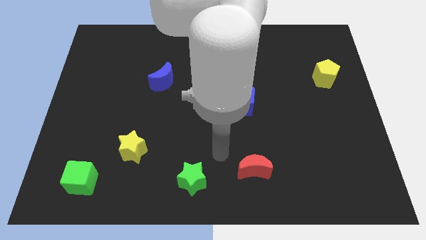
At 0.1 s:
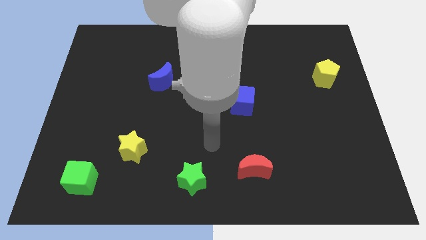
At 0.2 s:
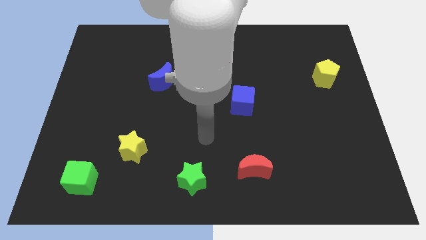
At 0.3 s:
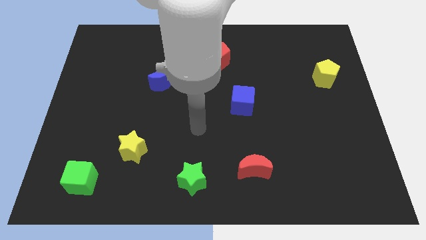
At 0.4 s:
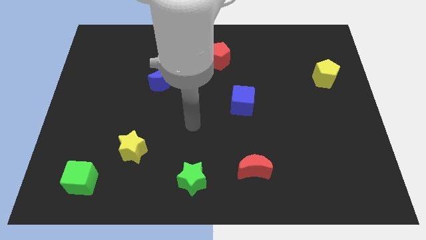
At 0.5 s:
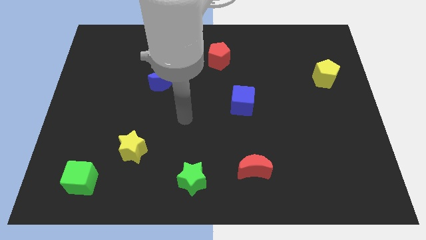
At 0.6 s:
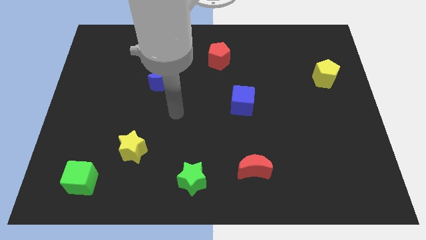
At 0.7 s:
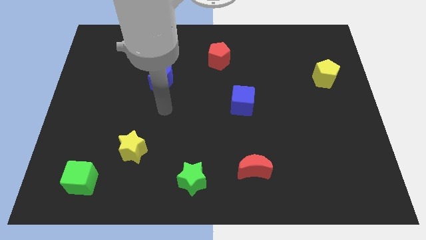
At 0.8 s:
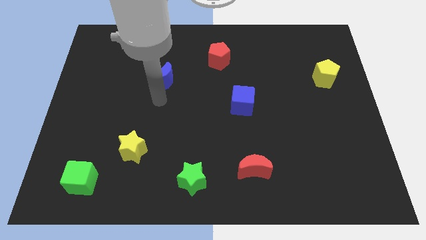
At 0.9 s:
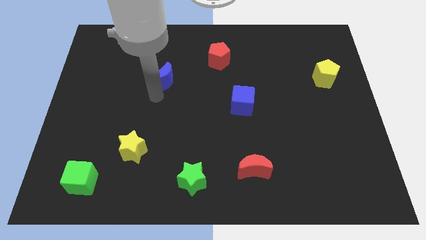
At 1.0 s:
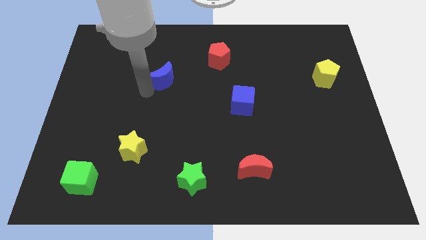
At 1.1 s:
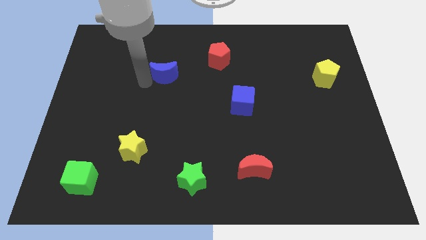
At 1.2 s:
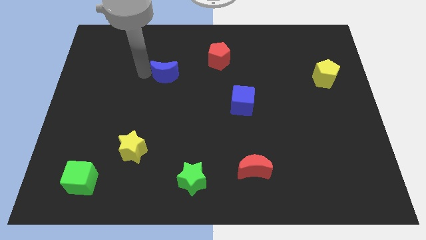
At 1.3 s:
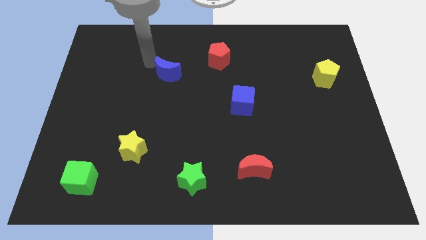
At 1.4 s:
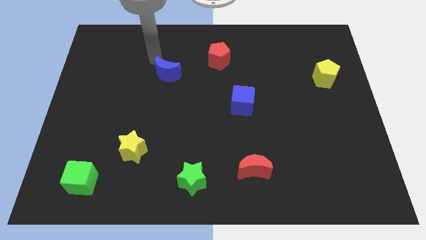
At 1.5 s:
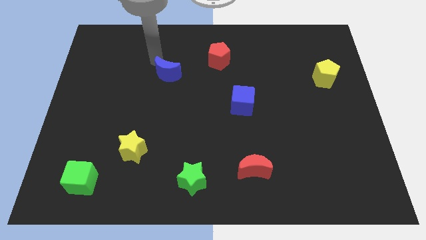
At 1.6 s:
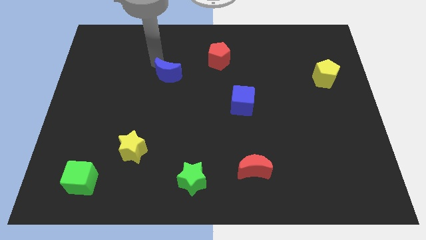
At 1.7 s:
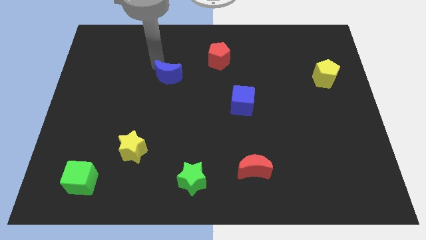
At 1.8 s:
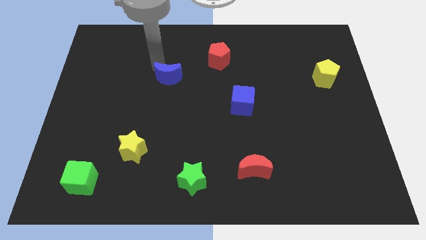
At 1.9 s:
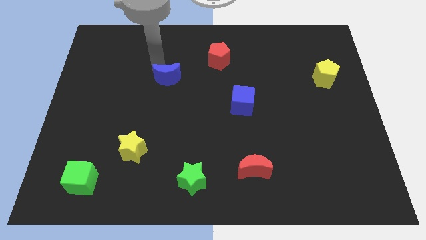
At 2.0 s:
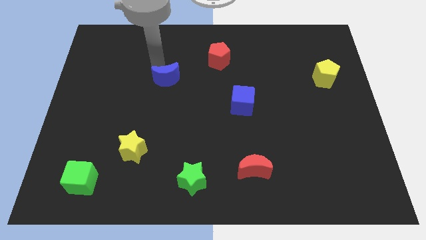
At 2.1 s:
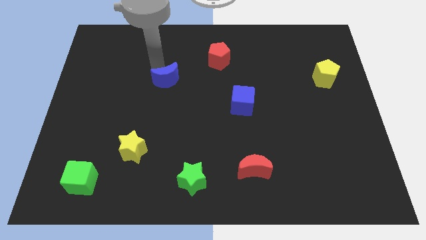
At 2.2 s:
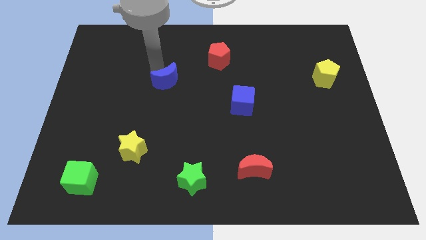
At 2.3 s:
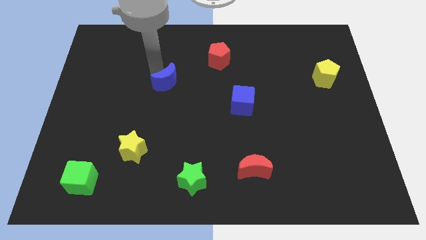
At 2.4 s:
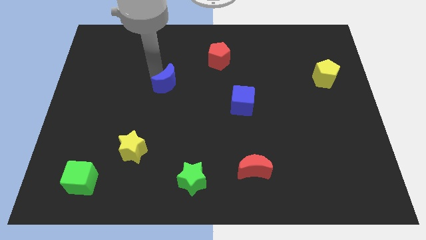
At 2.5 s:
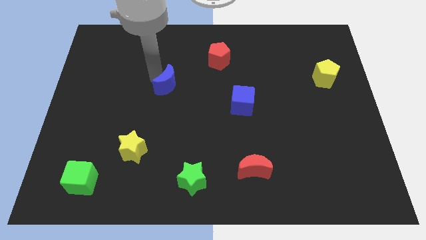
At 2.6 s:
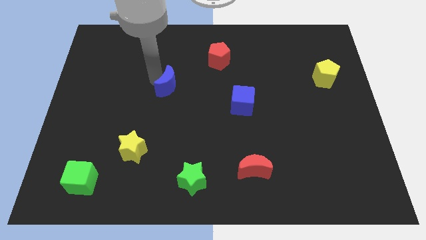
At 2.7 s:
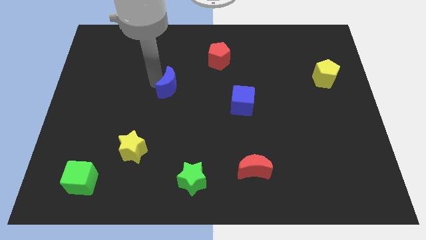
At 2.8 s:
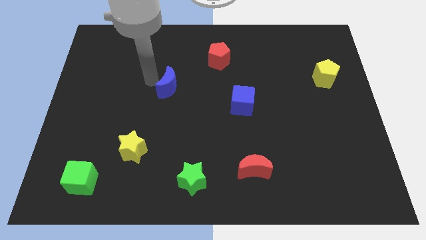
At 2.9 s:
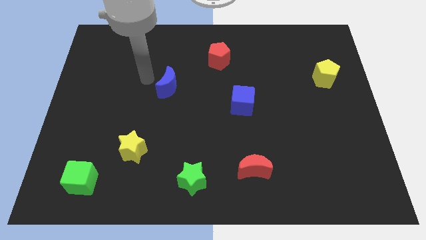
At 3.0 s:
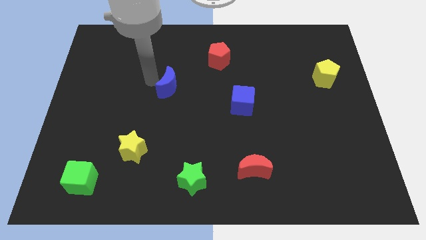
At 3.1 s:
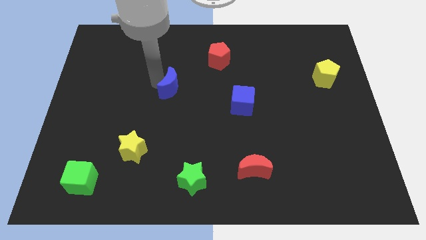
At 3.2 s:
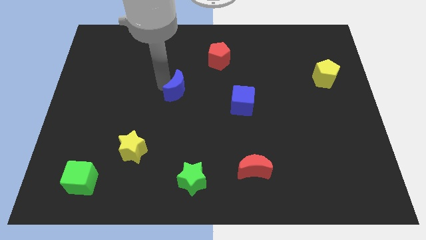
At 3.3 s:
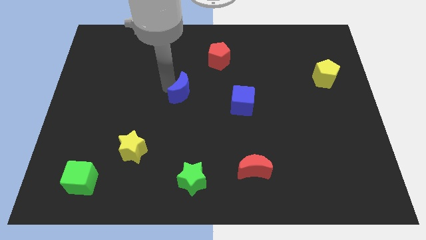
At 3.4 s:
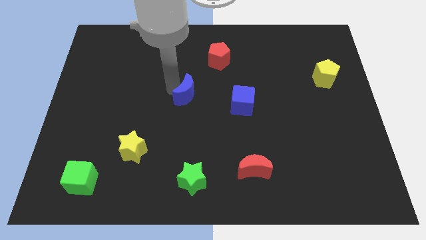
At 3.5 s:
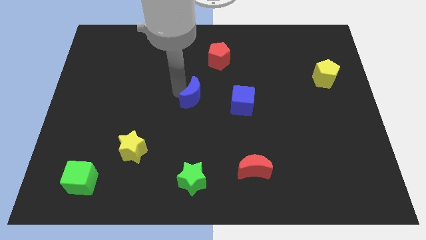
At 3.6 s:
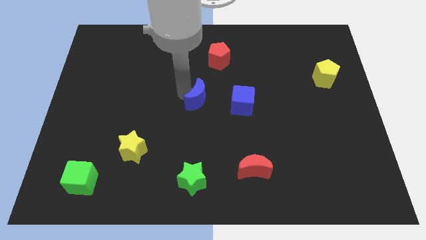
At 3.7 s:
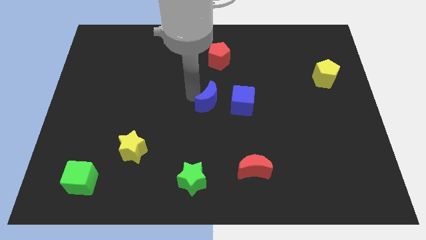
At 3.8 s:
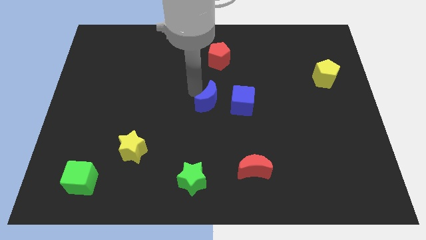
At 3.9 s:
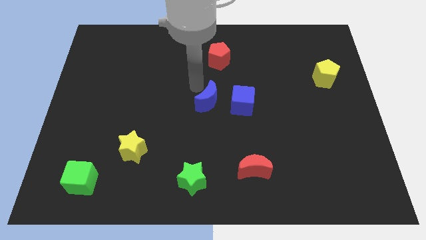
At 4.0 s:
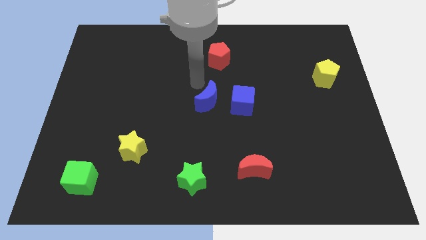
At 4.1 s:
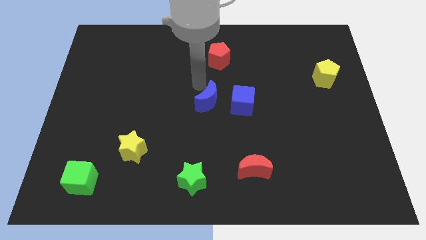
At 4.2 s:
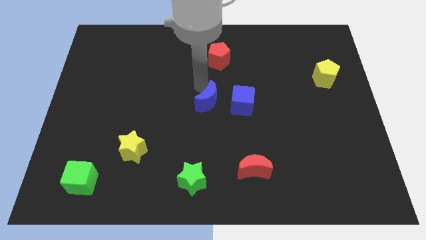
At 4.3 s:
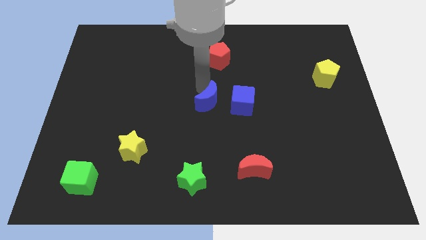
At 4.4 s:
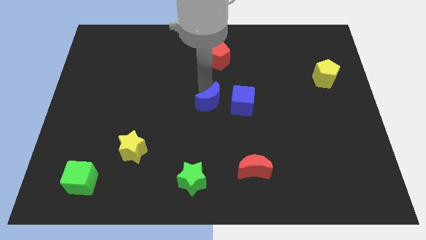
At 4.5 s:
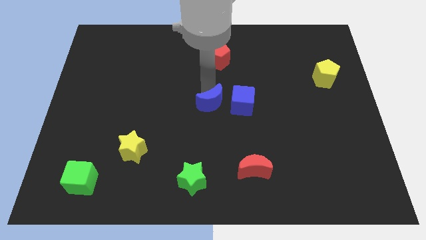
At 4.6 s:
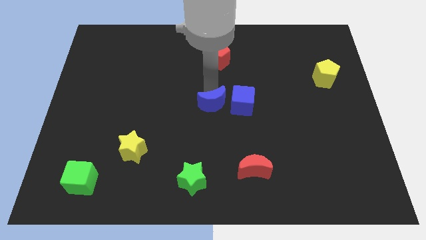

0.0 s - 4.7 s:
move the blue moon to the bottom left of the blue cube

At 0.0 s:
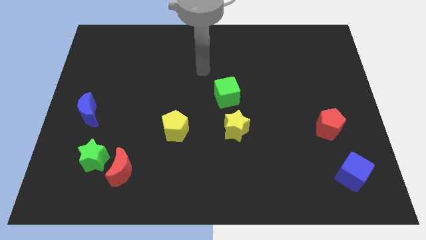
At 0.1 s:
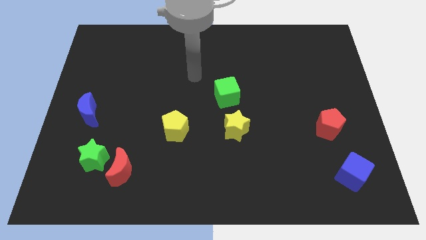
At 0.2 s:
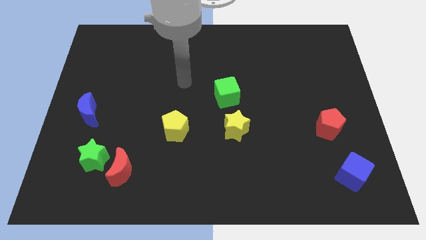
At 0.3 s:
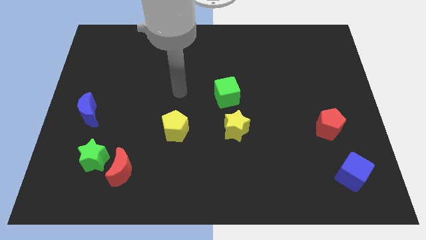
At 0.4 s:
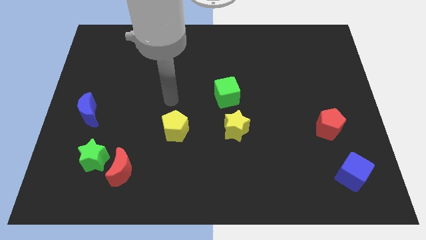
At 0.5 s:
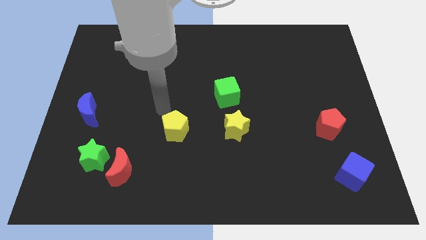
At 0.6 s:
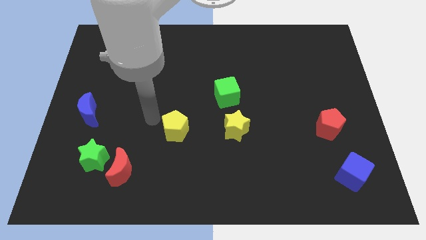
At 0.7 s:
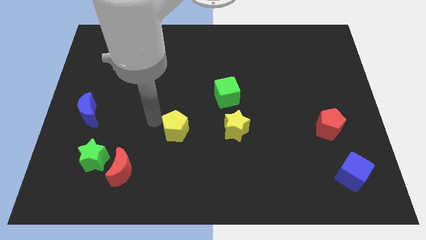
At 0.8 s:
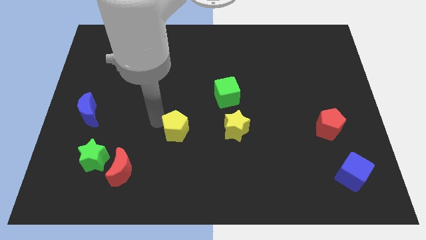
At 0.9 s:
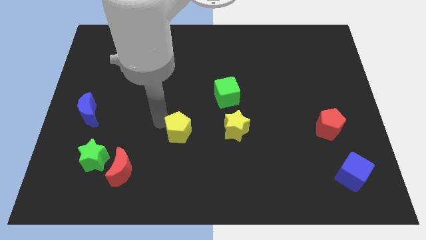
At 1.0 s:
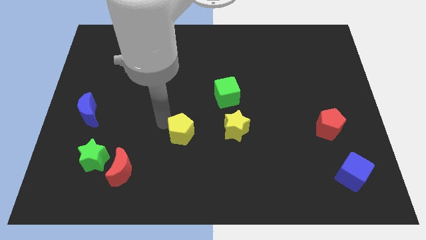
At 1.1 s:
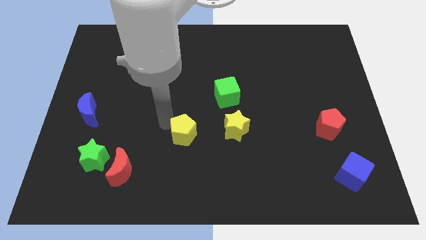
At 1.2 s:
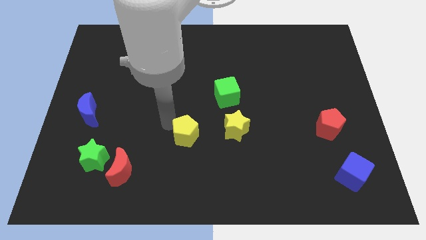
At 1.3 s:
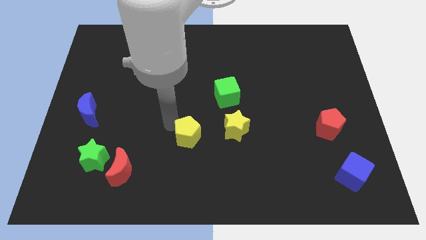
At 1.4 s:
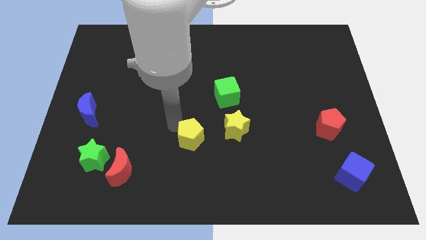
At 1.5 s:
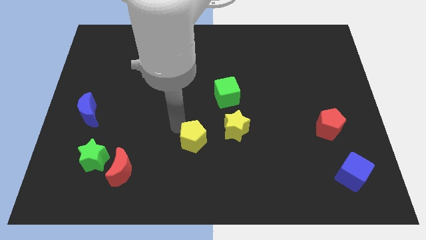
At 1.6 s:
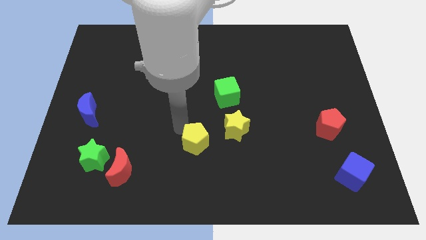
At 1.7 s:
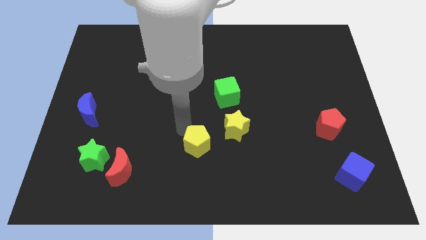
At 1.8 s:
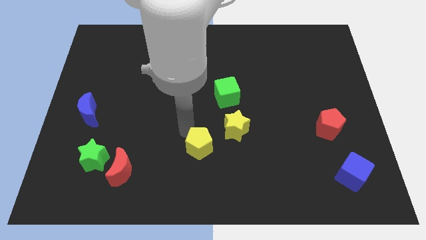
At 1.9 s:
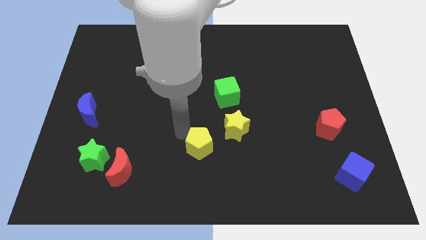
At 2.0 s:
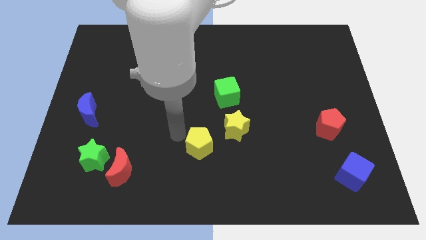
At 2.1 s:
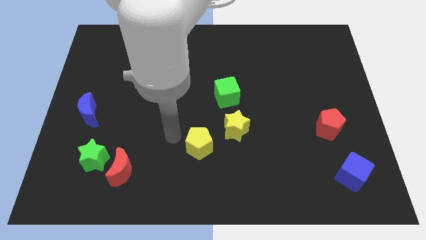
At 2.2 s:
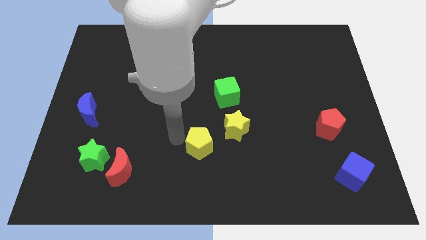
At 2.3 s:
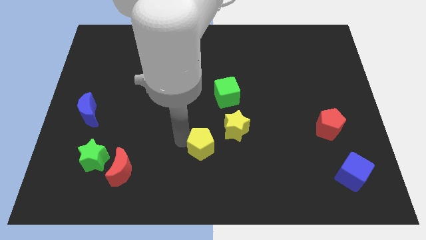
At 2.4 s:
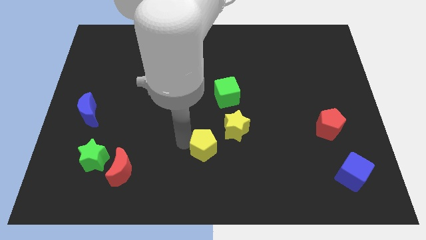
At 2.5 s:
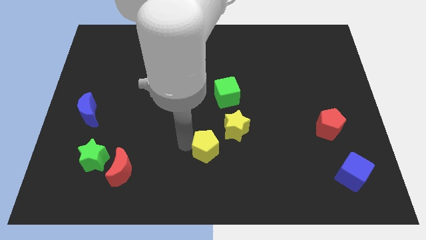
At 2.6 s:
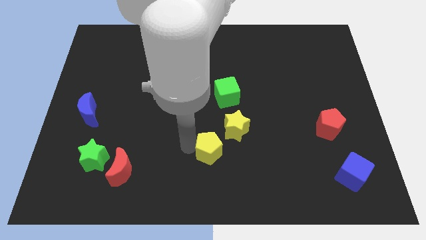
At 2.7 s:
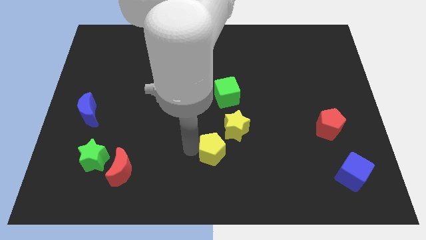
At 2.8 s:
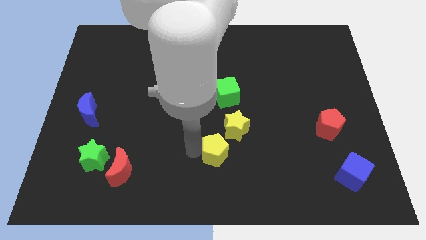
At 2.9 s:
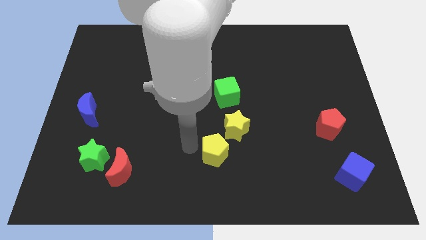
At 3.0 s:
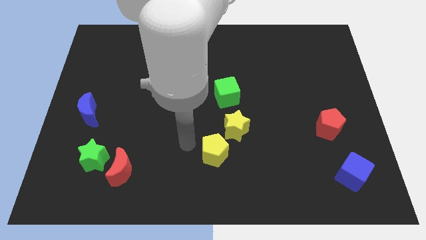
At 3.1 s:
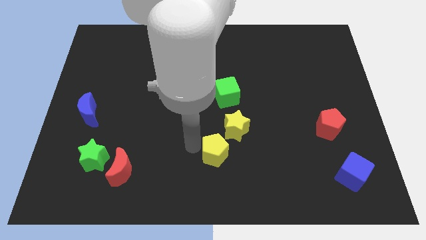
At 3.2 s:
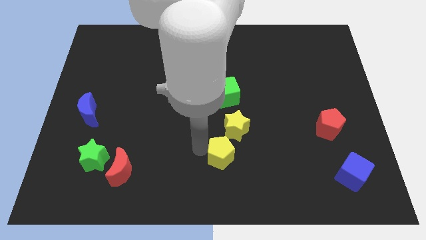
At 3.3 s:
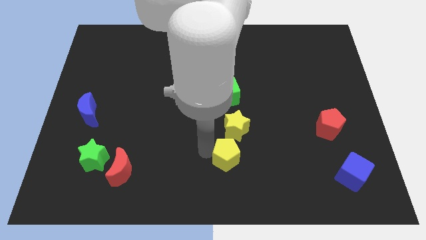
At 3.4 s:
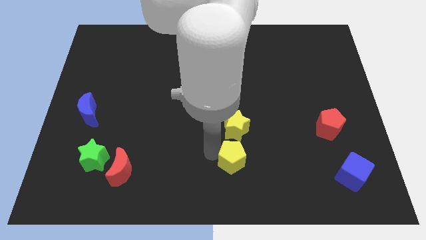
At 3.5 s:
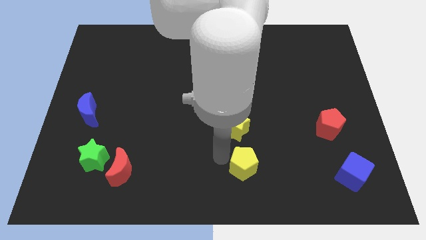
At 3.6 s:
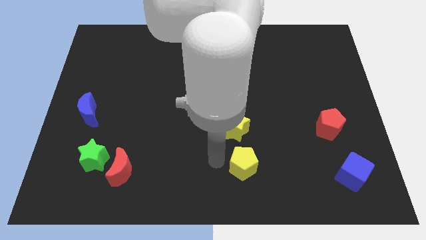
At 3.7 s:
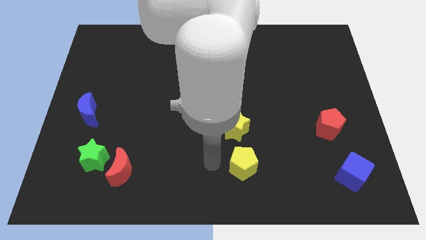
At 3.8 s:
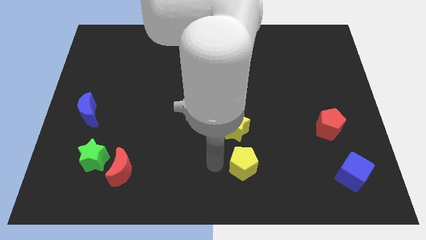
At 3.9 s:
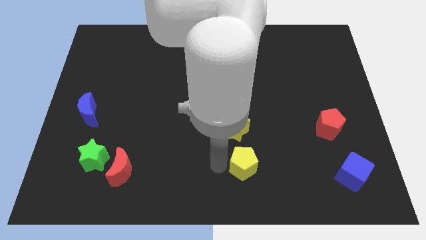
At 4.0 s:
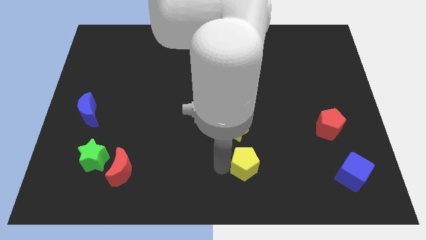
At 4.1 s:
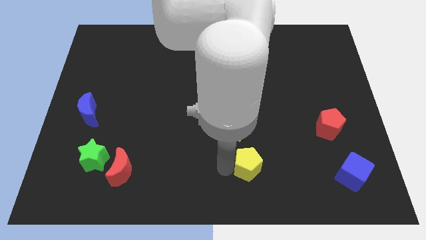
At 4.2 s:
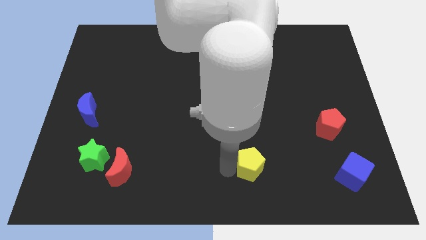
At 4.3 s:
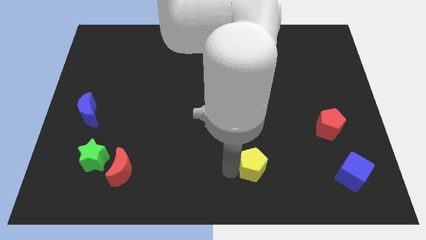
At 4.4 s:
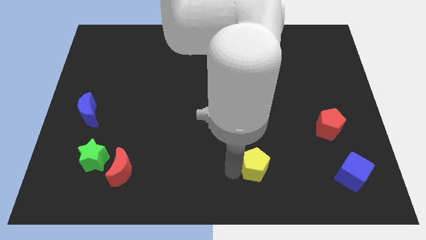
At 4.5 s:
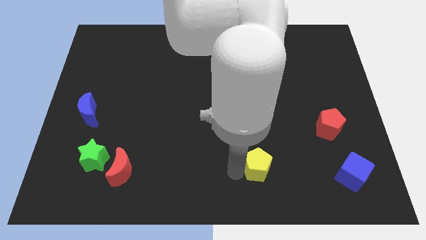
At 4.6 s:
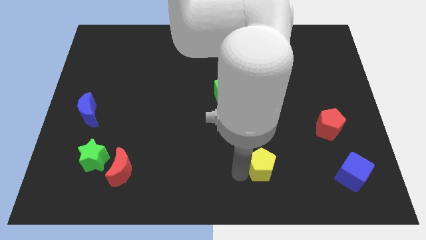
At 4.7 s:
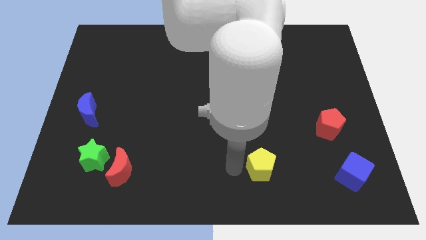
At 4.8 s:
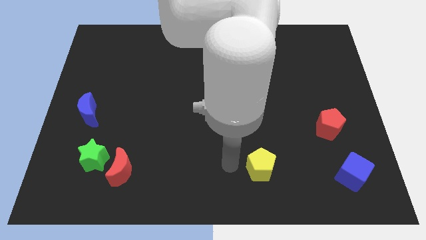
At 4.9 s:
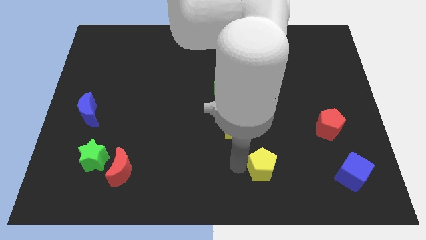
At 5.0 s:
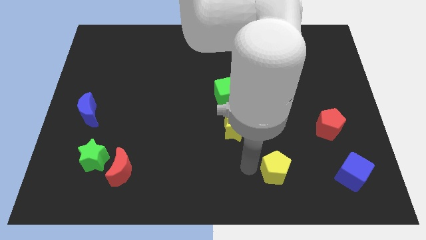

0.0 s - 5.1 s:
put the yellow pentagon to the left side of the blue cube
